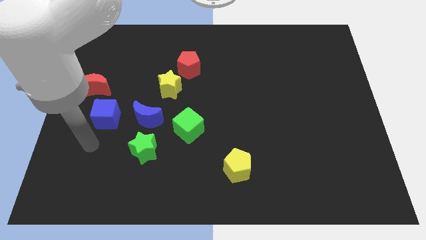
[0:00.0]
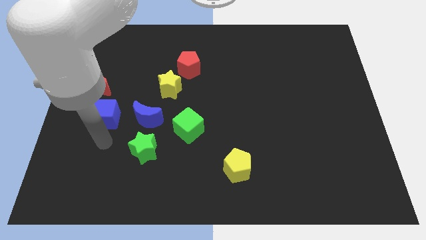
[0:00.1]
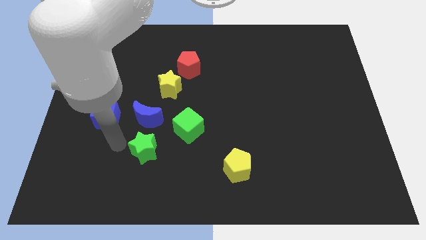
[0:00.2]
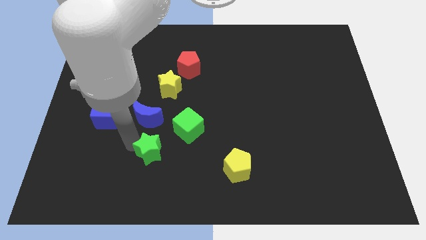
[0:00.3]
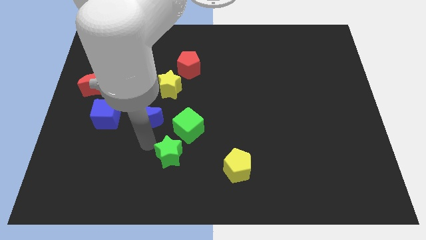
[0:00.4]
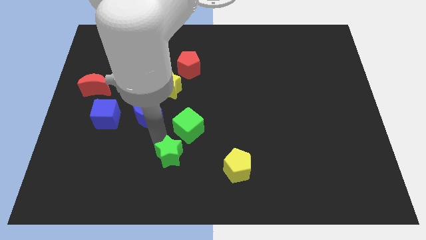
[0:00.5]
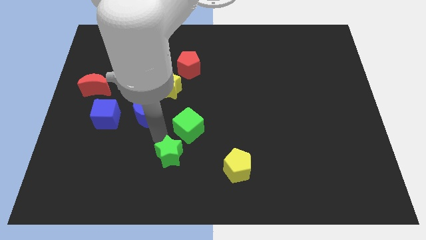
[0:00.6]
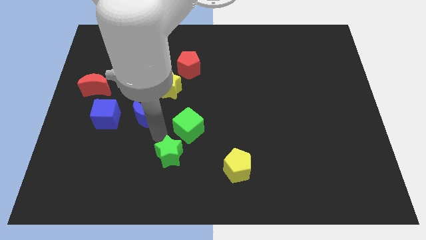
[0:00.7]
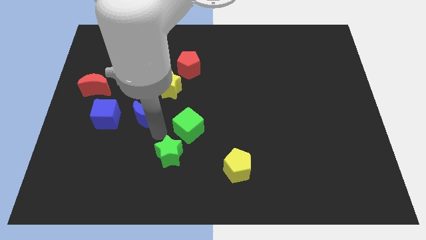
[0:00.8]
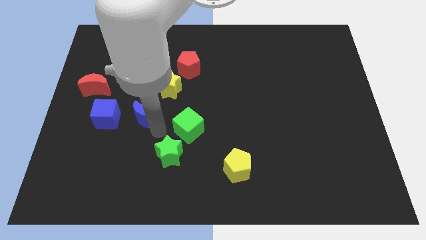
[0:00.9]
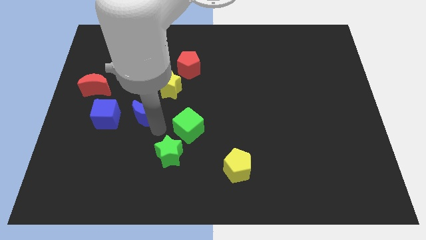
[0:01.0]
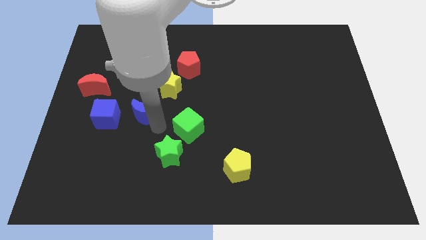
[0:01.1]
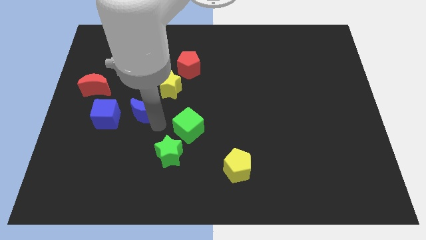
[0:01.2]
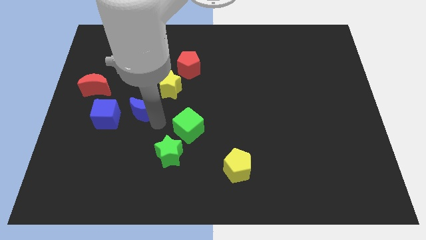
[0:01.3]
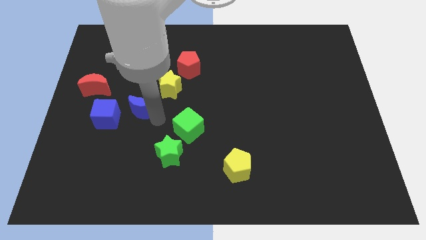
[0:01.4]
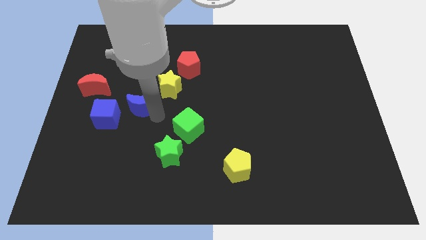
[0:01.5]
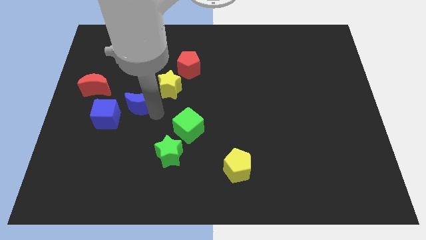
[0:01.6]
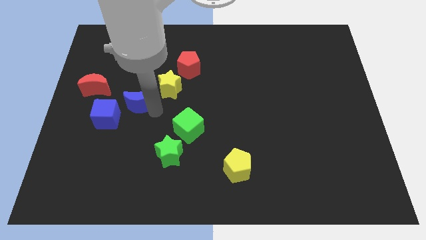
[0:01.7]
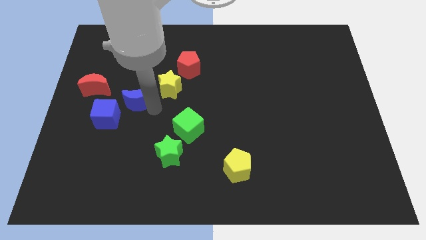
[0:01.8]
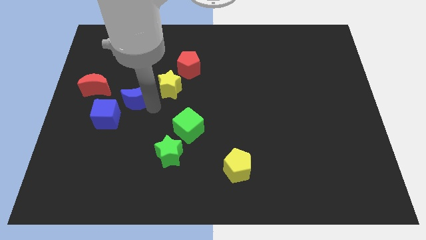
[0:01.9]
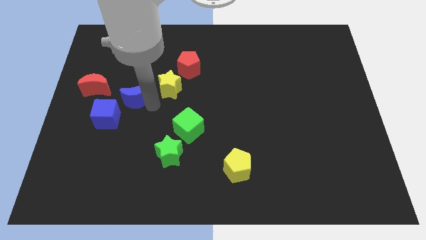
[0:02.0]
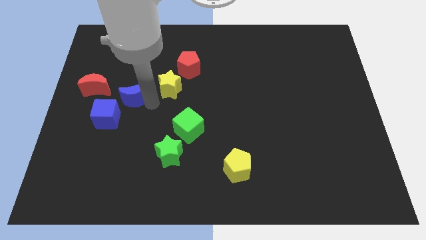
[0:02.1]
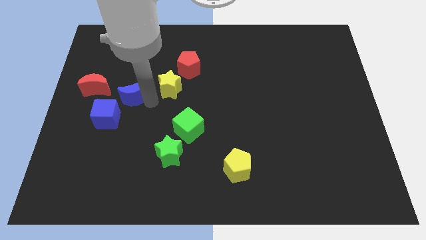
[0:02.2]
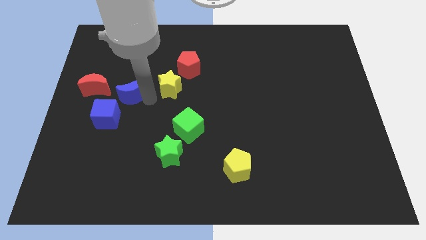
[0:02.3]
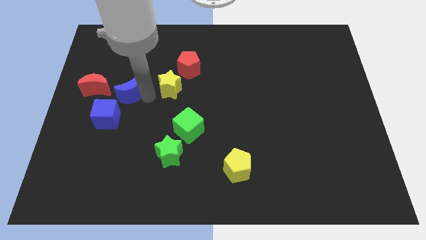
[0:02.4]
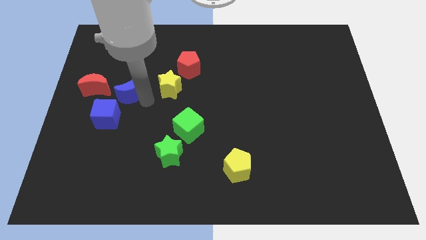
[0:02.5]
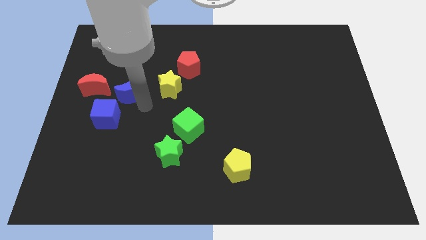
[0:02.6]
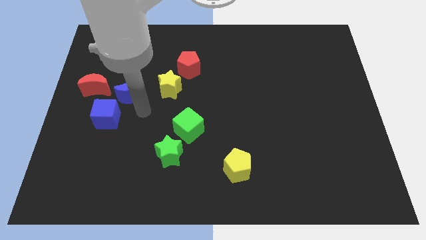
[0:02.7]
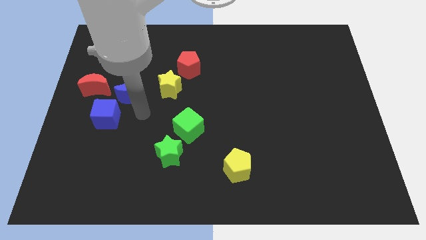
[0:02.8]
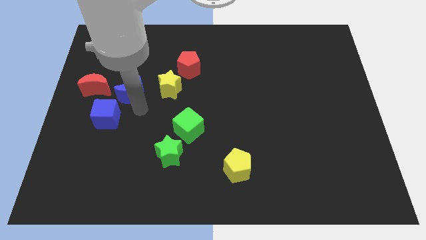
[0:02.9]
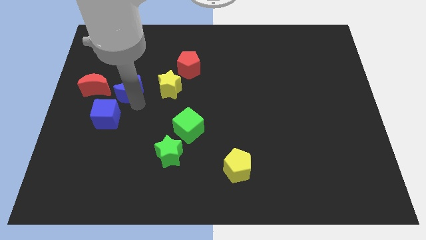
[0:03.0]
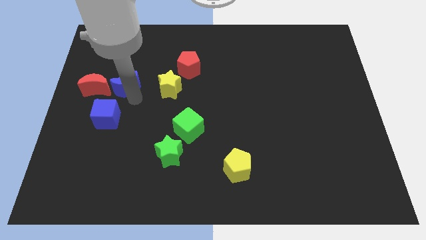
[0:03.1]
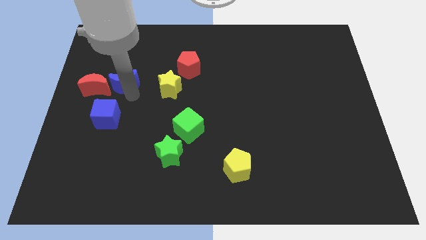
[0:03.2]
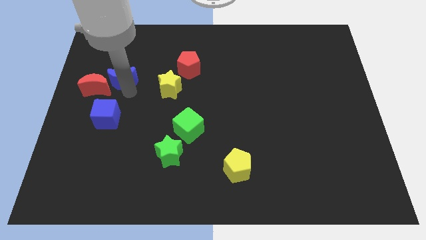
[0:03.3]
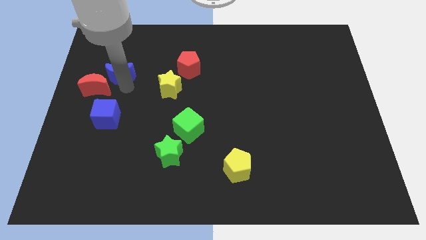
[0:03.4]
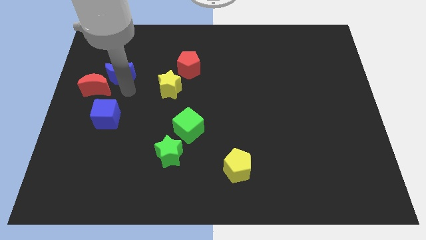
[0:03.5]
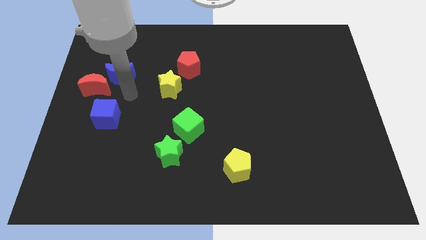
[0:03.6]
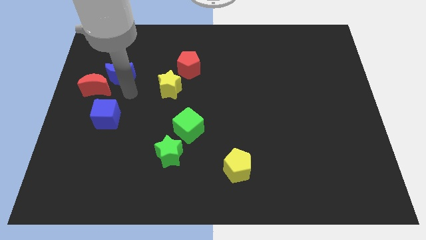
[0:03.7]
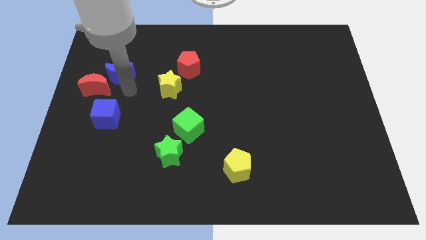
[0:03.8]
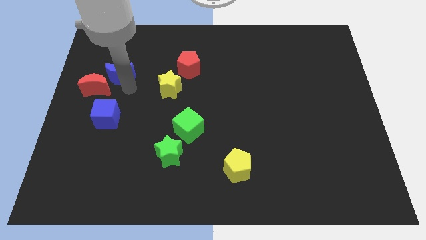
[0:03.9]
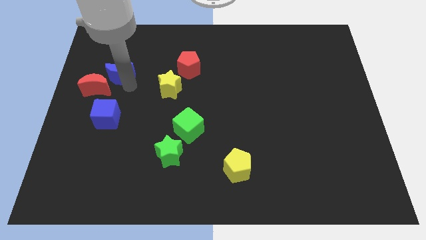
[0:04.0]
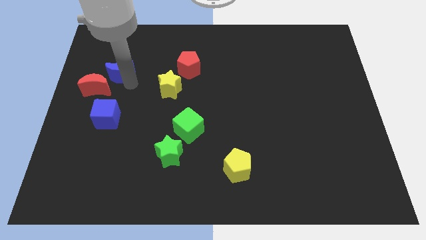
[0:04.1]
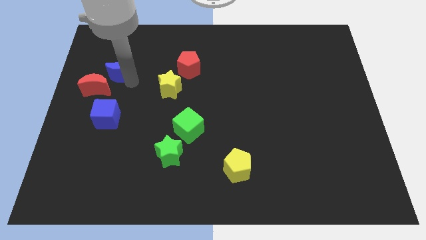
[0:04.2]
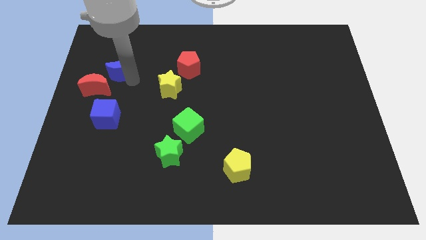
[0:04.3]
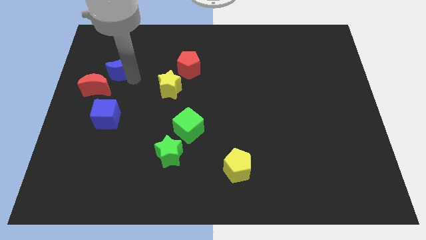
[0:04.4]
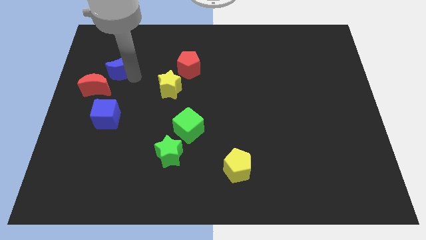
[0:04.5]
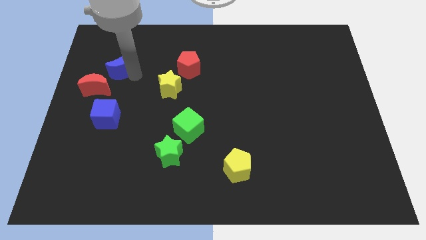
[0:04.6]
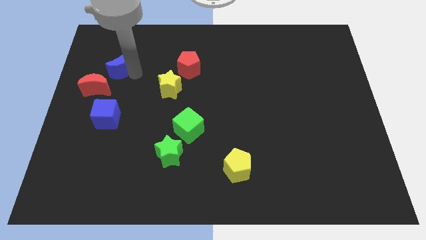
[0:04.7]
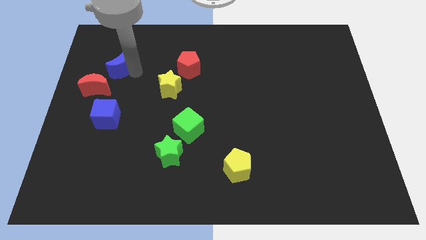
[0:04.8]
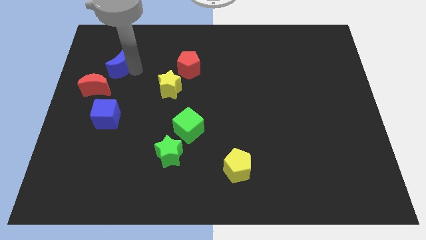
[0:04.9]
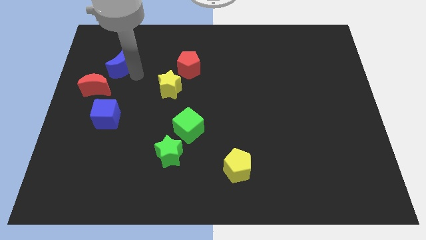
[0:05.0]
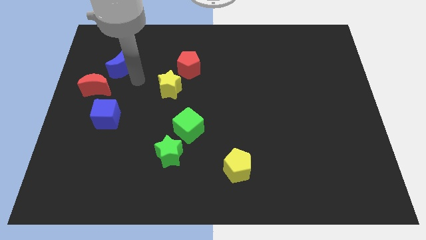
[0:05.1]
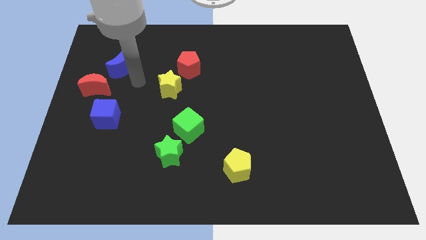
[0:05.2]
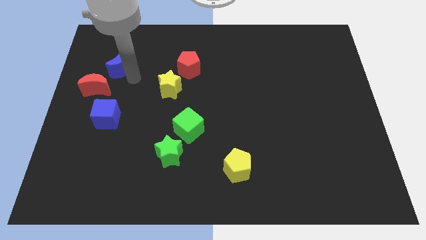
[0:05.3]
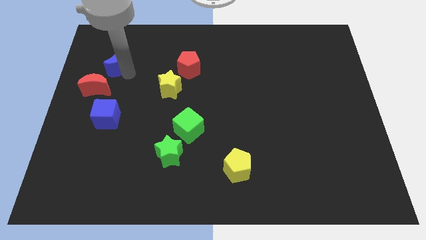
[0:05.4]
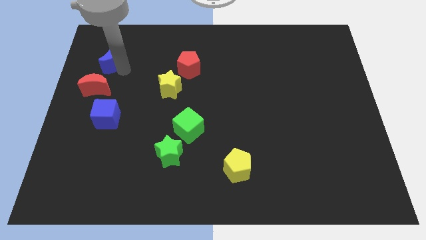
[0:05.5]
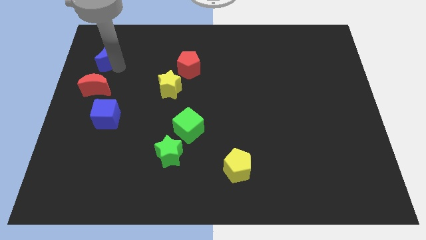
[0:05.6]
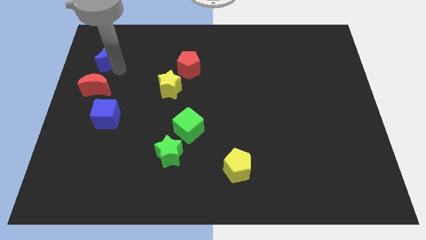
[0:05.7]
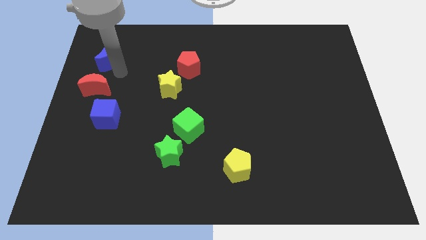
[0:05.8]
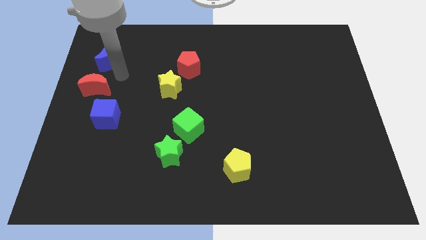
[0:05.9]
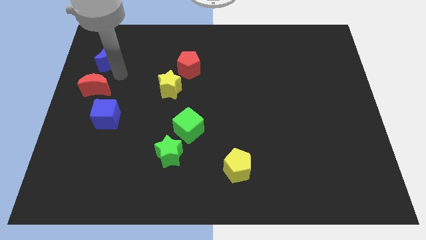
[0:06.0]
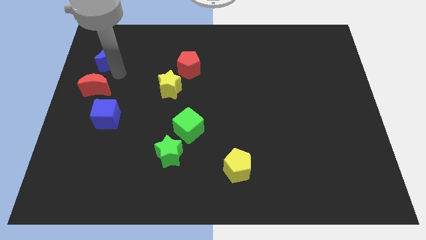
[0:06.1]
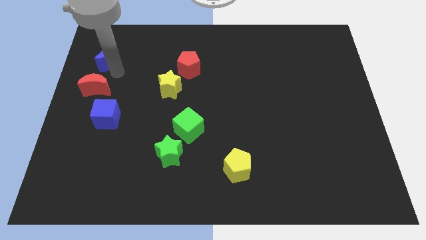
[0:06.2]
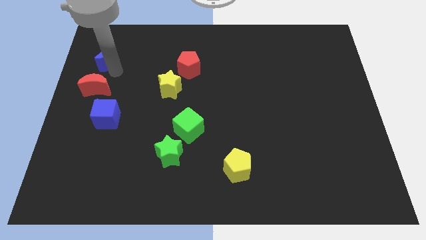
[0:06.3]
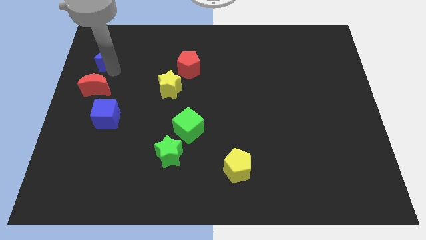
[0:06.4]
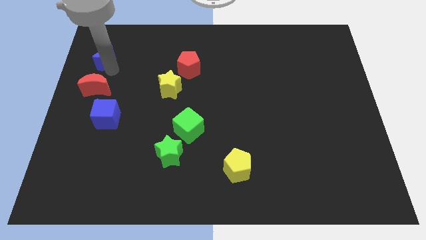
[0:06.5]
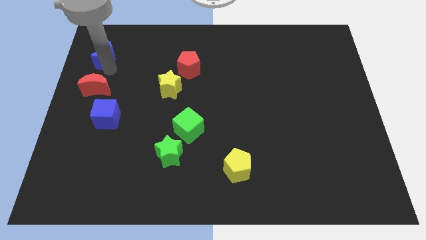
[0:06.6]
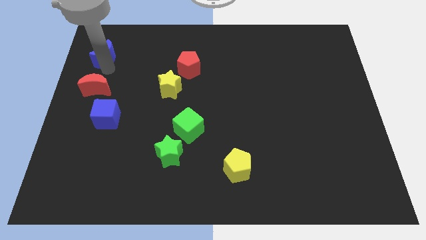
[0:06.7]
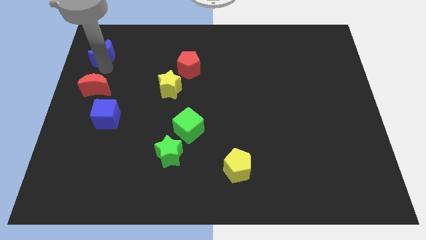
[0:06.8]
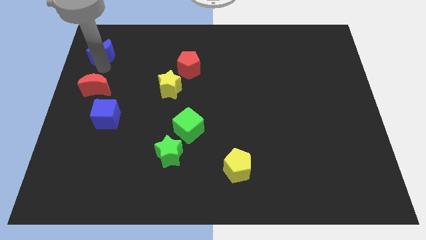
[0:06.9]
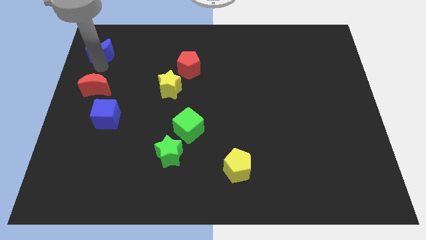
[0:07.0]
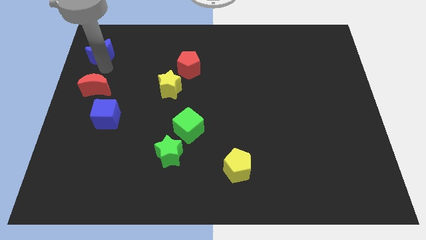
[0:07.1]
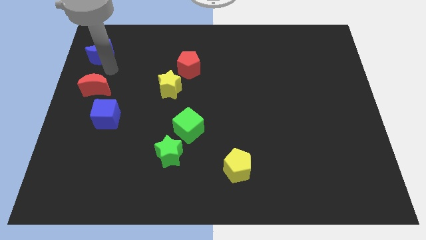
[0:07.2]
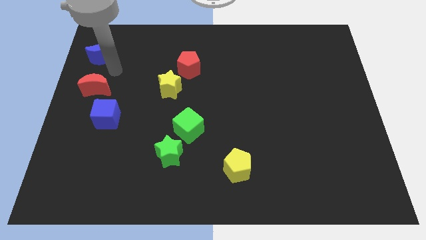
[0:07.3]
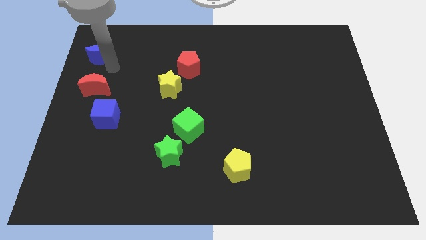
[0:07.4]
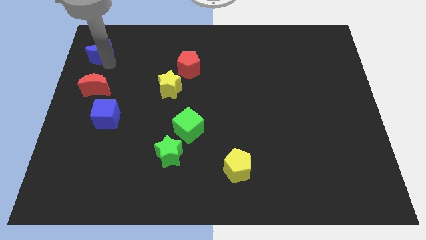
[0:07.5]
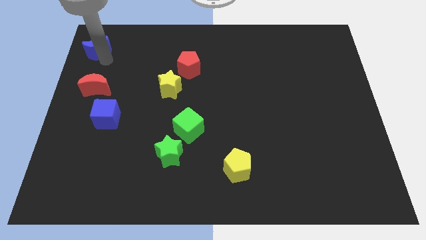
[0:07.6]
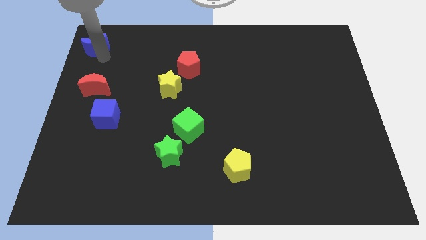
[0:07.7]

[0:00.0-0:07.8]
put the blue moon to the top left
